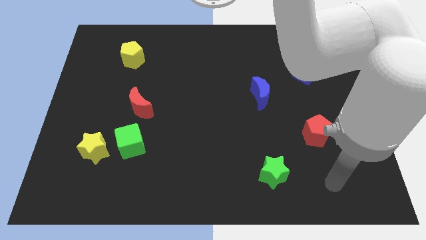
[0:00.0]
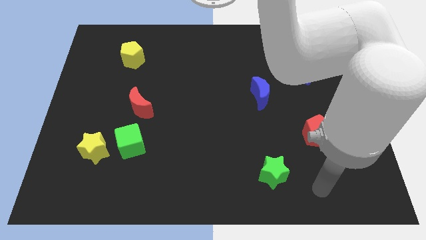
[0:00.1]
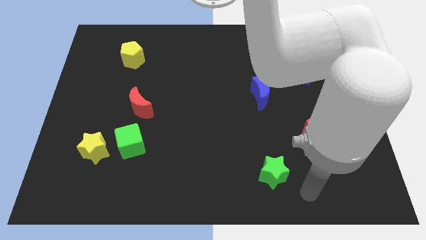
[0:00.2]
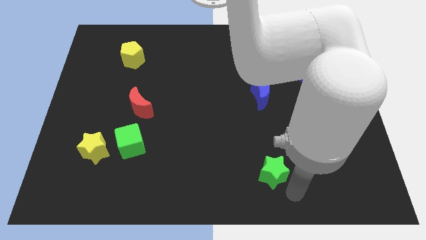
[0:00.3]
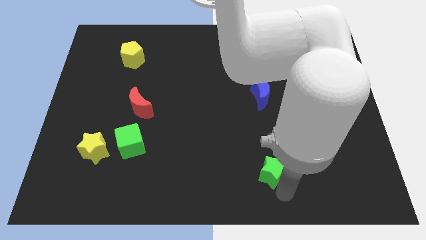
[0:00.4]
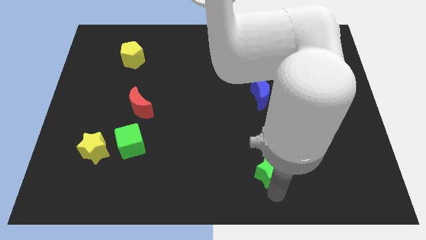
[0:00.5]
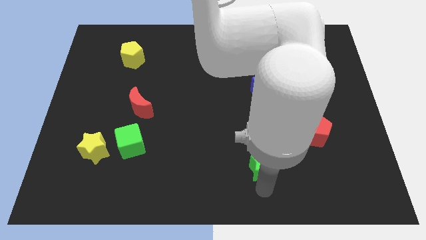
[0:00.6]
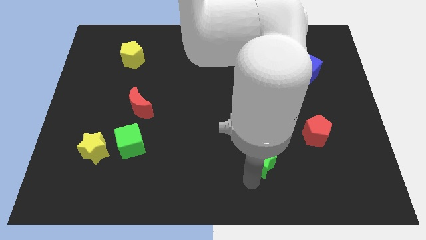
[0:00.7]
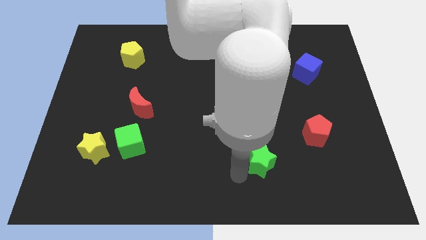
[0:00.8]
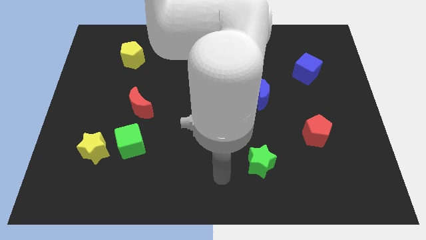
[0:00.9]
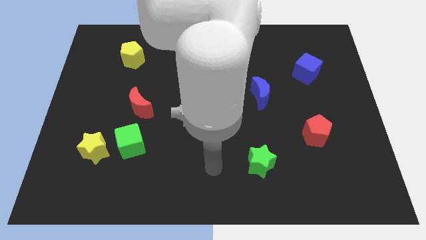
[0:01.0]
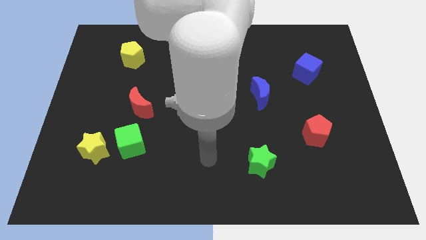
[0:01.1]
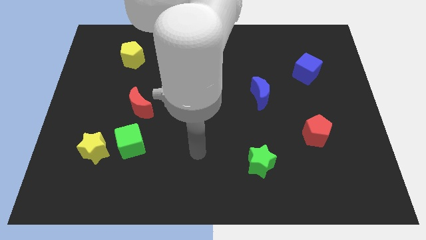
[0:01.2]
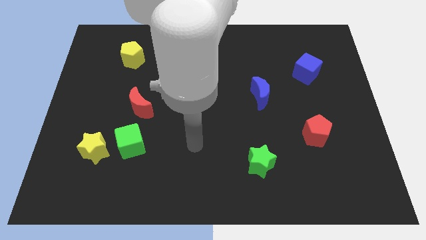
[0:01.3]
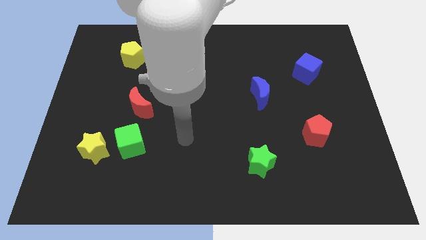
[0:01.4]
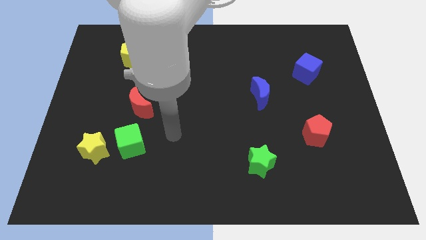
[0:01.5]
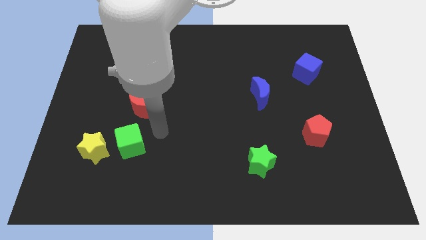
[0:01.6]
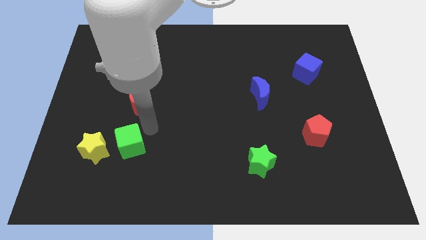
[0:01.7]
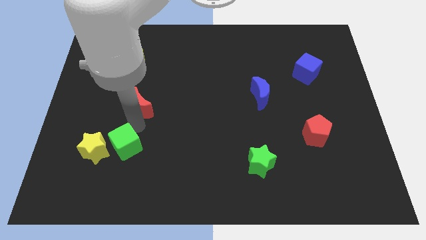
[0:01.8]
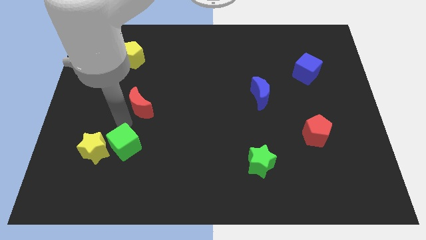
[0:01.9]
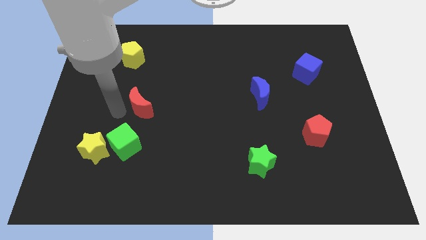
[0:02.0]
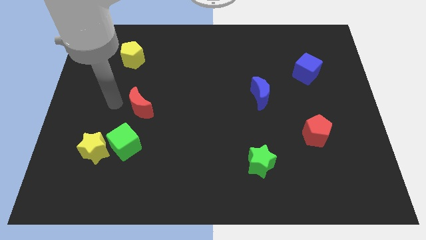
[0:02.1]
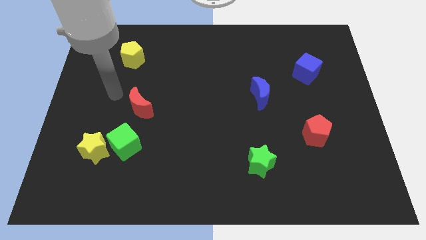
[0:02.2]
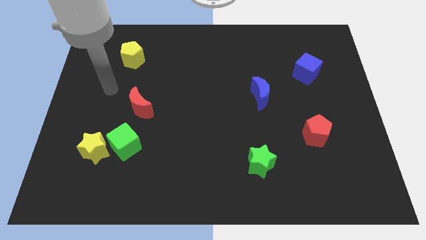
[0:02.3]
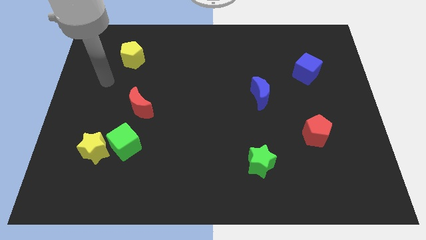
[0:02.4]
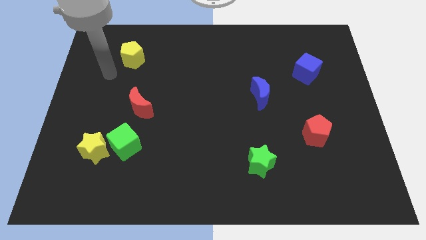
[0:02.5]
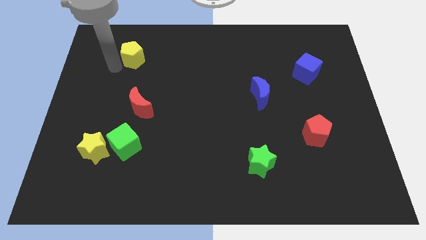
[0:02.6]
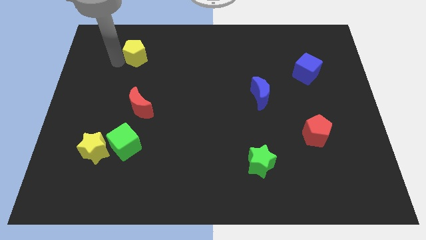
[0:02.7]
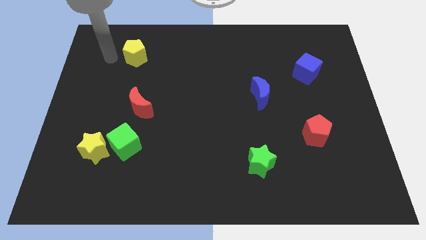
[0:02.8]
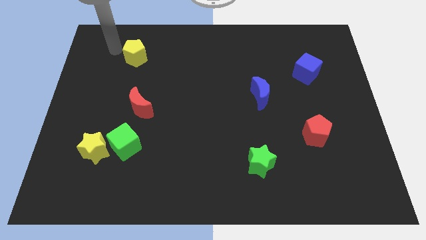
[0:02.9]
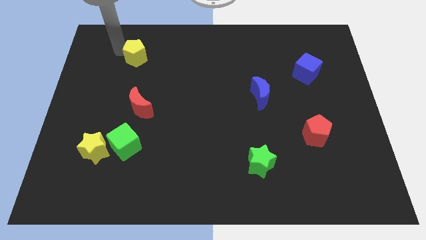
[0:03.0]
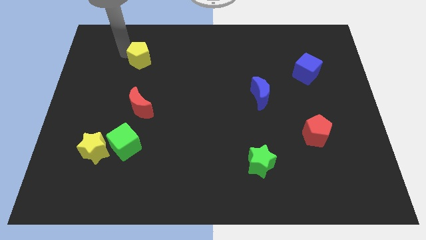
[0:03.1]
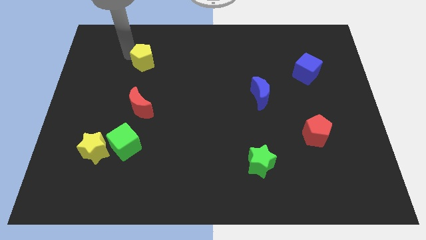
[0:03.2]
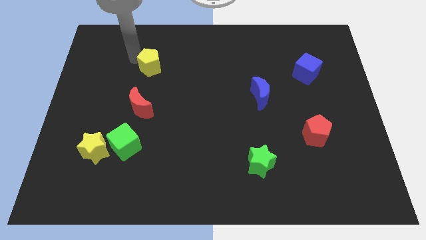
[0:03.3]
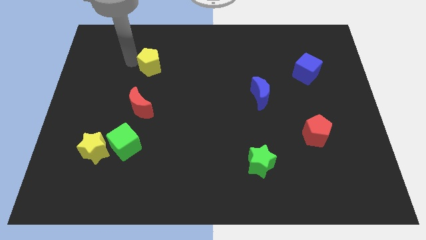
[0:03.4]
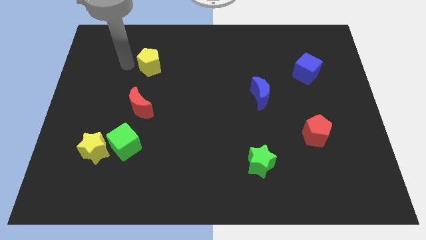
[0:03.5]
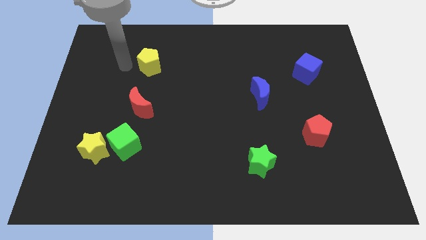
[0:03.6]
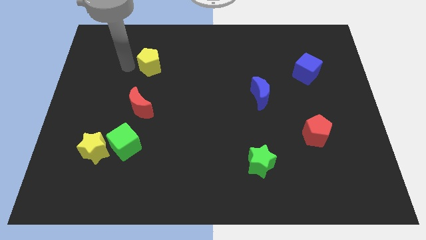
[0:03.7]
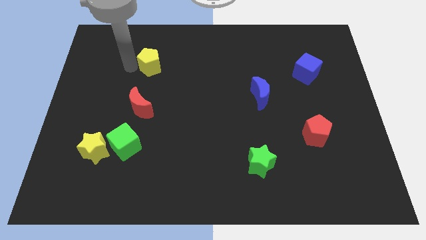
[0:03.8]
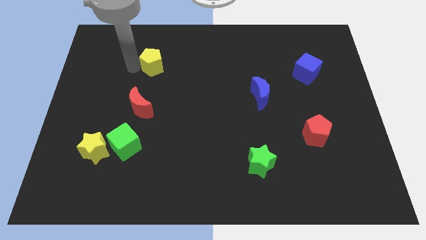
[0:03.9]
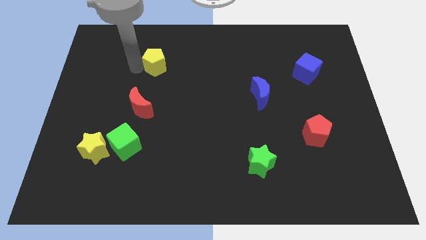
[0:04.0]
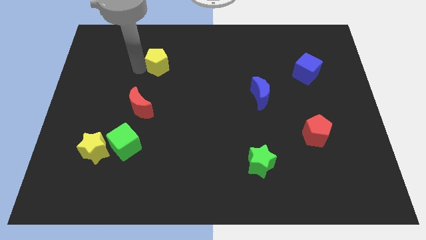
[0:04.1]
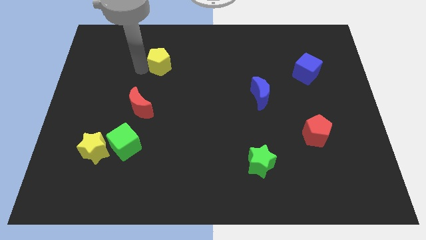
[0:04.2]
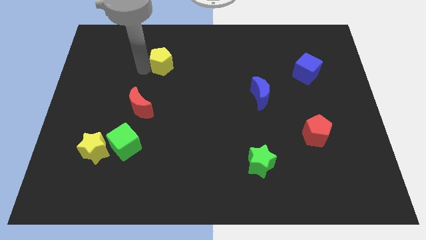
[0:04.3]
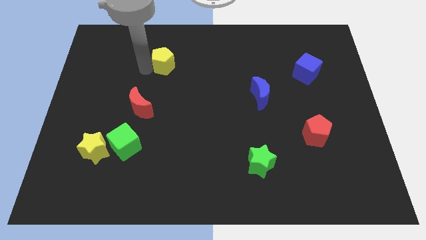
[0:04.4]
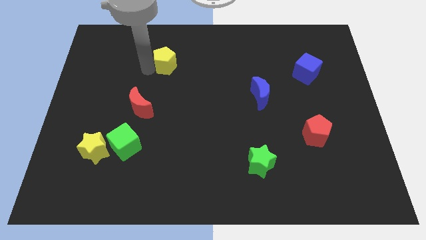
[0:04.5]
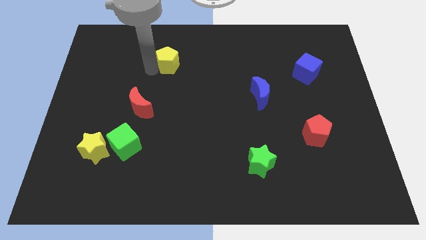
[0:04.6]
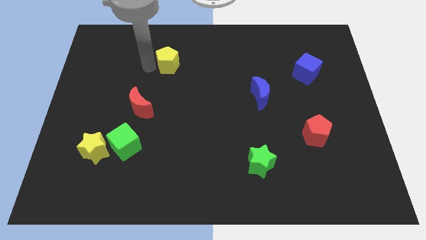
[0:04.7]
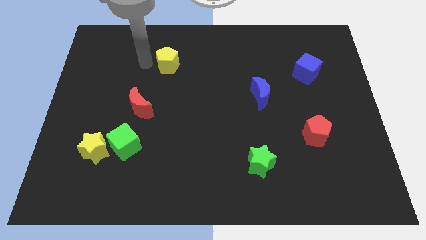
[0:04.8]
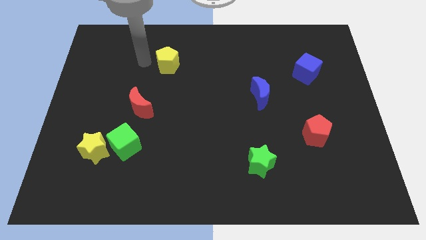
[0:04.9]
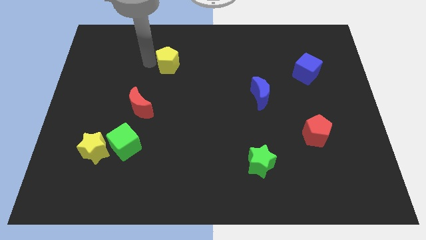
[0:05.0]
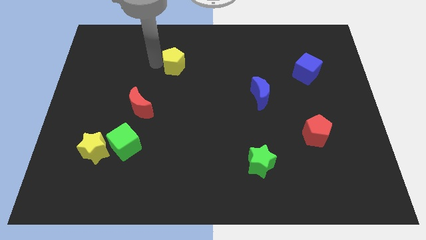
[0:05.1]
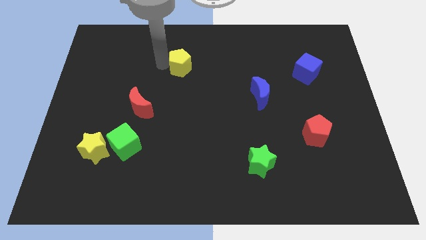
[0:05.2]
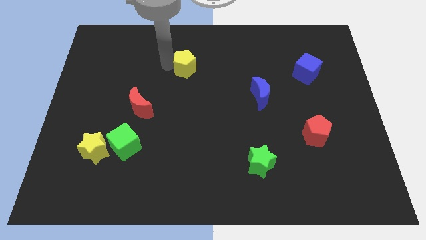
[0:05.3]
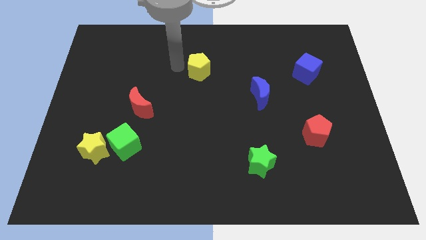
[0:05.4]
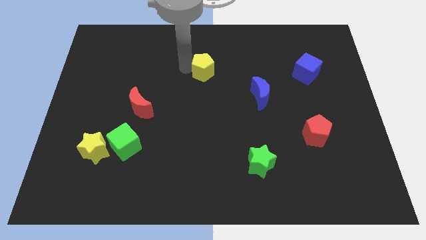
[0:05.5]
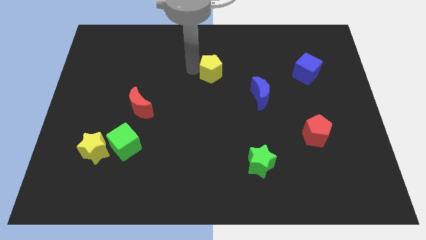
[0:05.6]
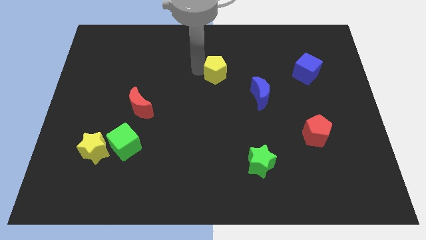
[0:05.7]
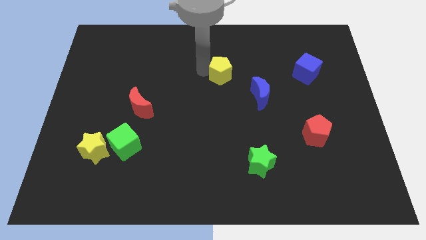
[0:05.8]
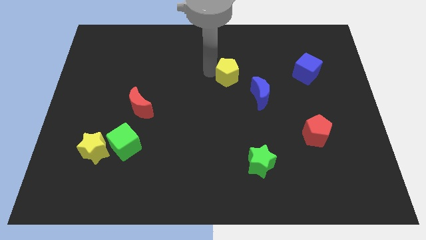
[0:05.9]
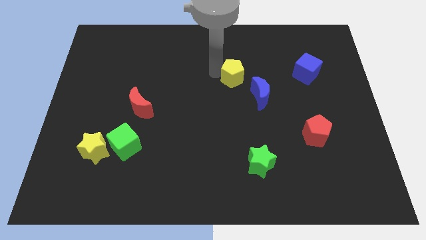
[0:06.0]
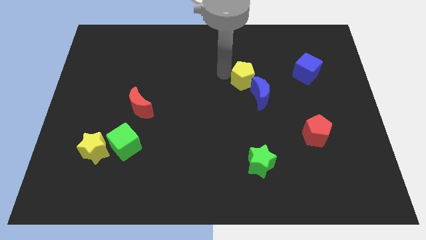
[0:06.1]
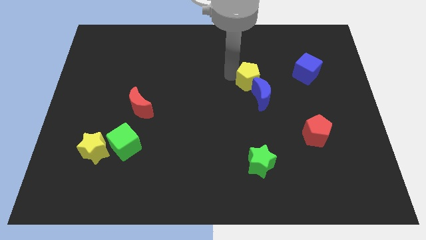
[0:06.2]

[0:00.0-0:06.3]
push the yellow pentagon next to the blue moon
